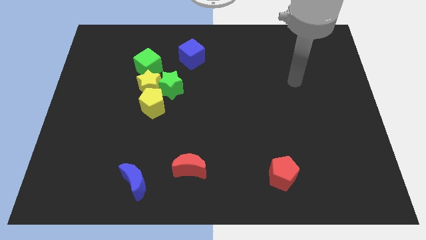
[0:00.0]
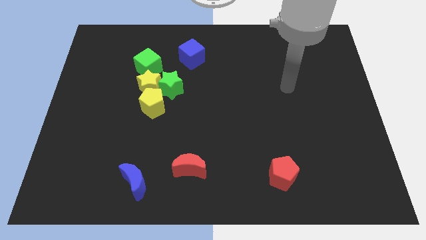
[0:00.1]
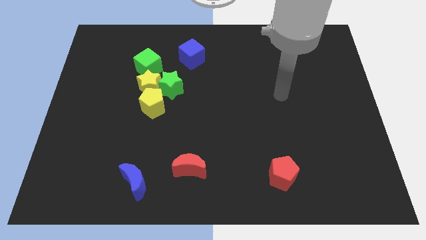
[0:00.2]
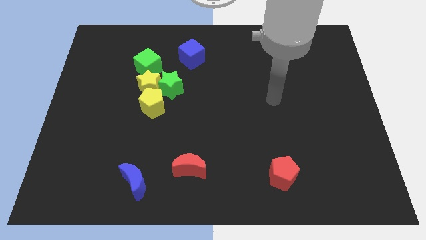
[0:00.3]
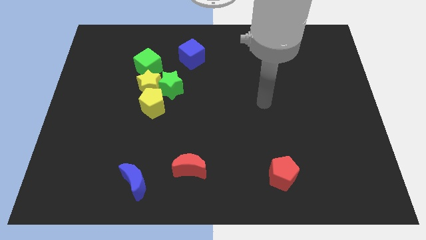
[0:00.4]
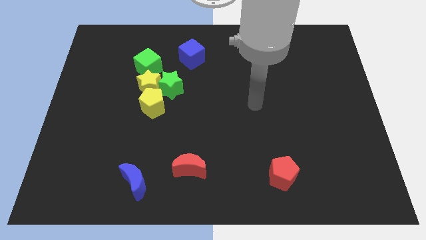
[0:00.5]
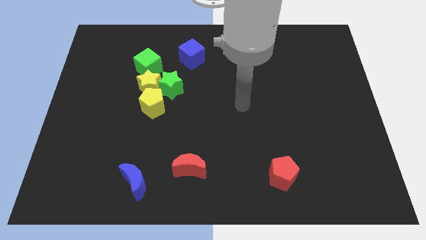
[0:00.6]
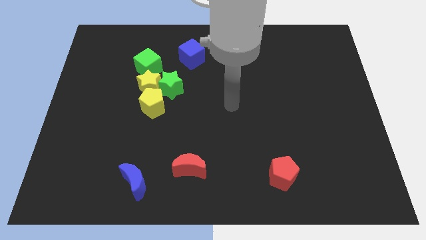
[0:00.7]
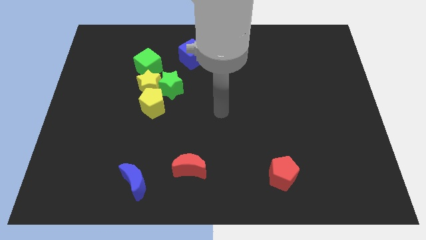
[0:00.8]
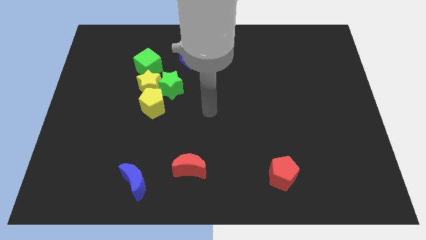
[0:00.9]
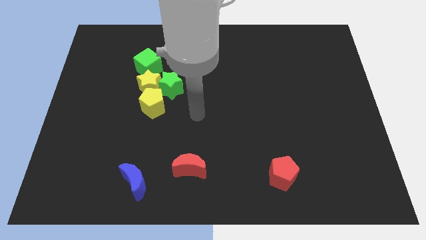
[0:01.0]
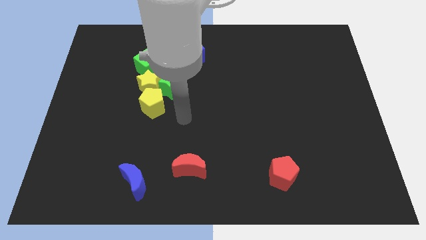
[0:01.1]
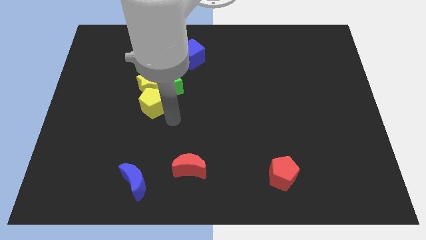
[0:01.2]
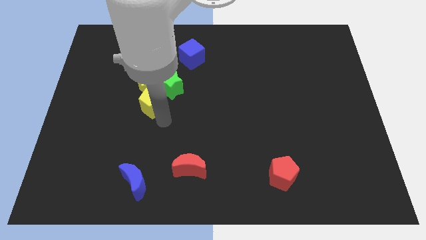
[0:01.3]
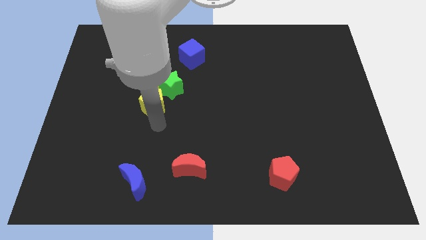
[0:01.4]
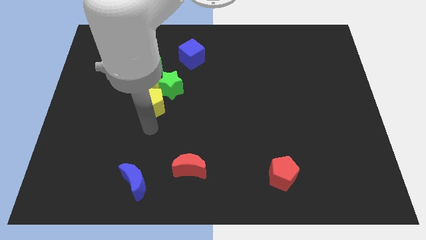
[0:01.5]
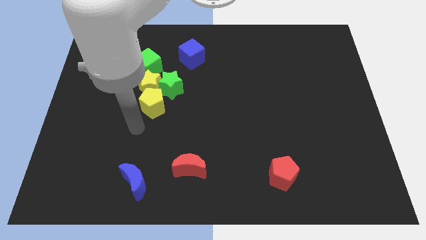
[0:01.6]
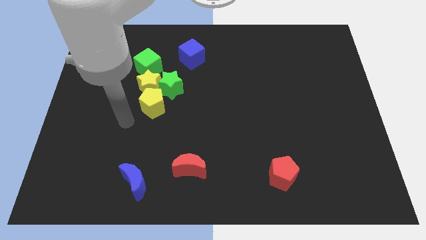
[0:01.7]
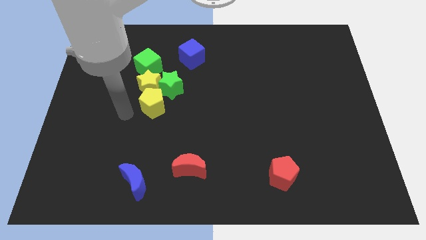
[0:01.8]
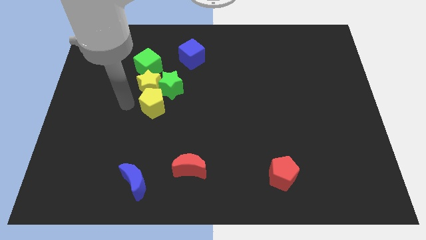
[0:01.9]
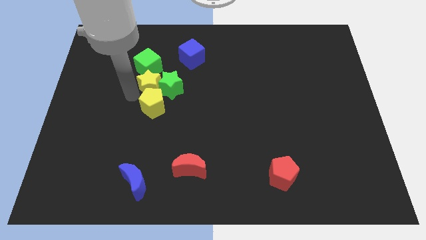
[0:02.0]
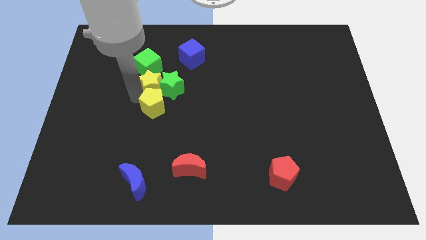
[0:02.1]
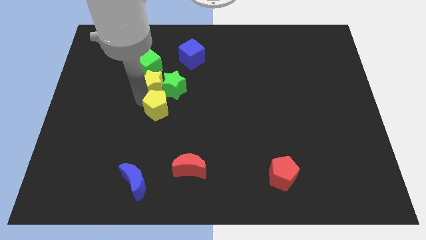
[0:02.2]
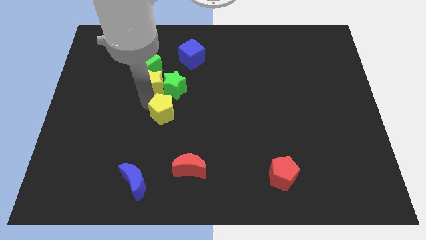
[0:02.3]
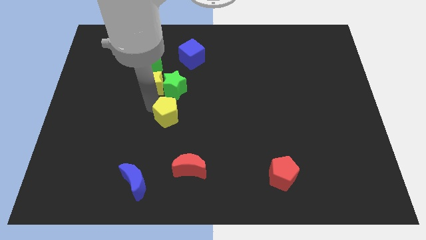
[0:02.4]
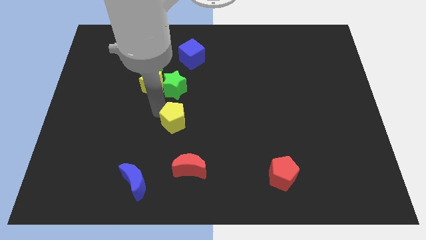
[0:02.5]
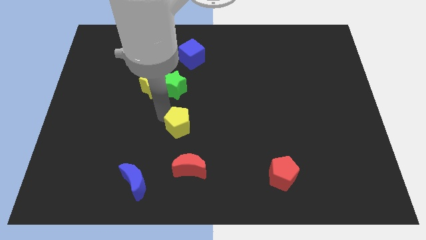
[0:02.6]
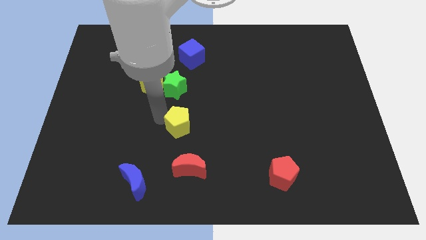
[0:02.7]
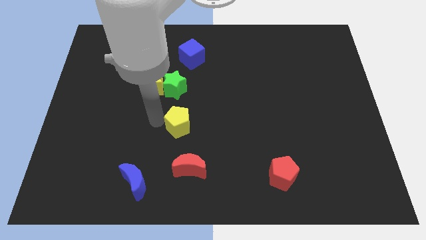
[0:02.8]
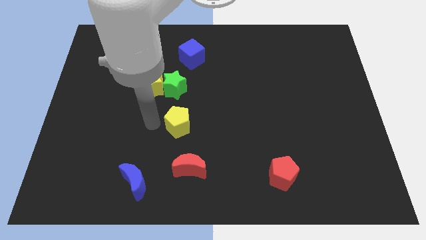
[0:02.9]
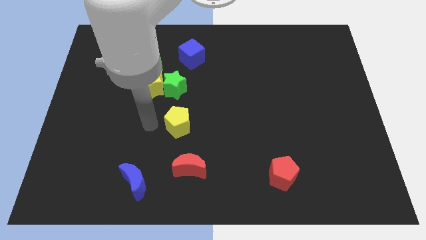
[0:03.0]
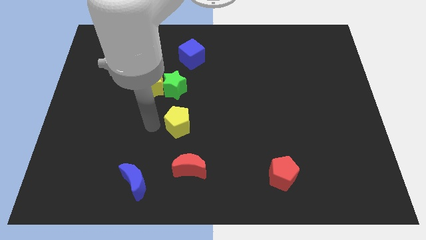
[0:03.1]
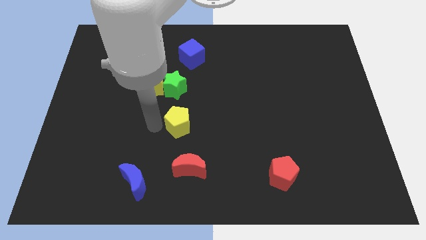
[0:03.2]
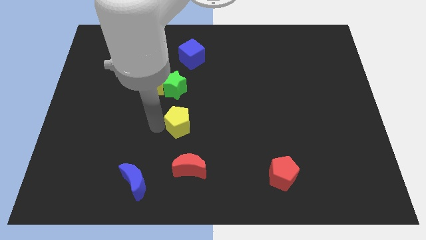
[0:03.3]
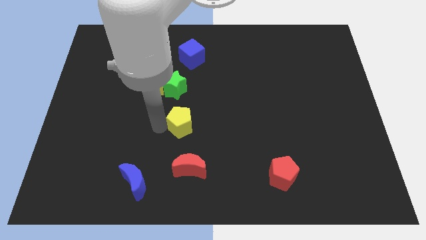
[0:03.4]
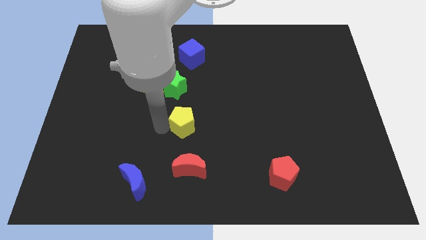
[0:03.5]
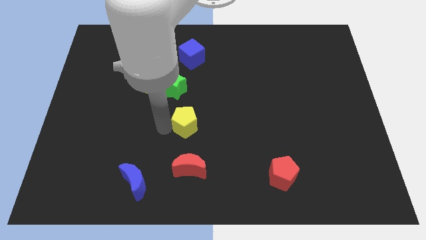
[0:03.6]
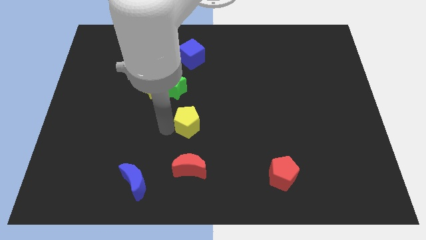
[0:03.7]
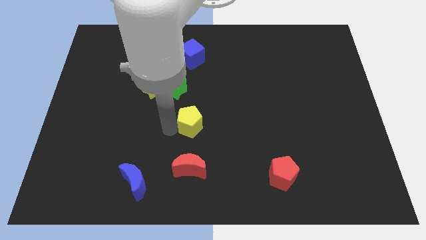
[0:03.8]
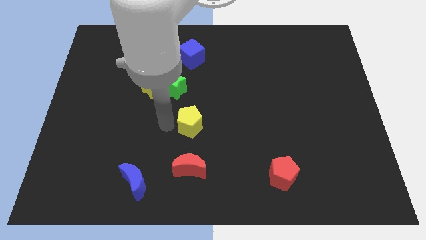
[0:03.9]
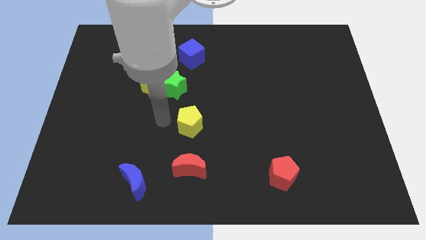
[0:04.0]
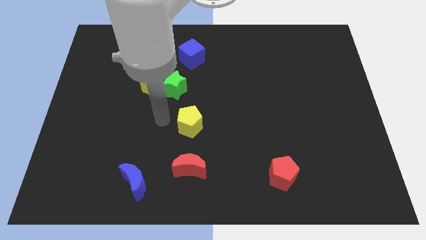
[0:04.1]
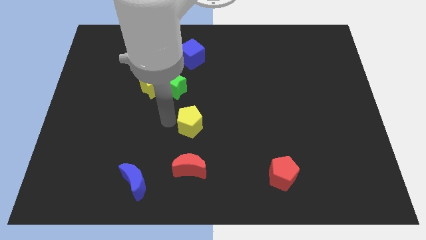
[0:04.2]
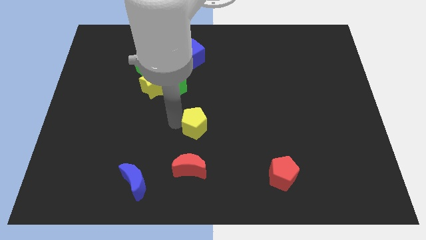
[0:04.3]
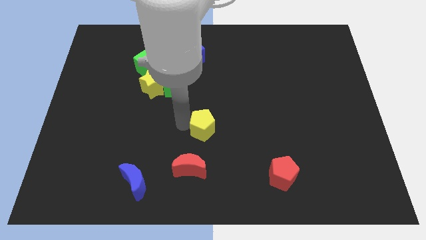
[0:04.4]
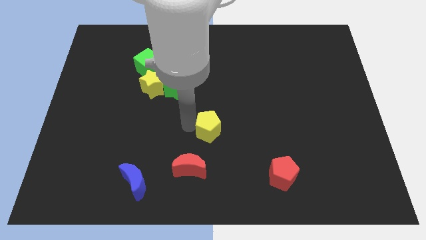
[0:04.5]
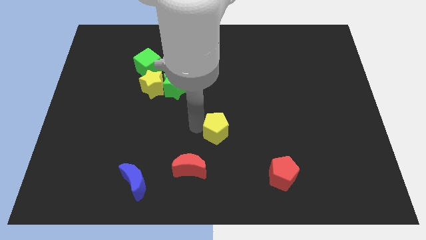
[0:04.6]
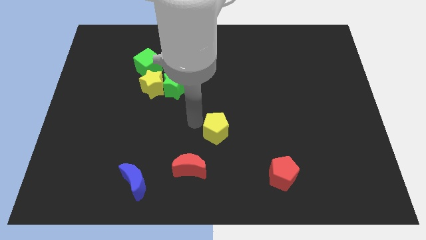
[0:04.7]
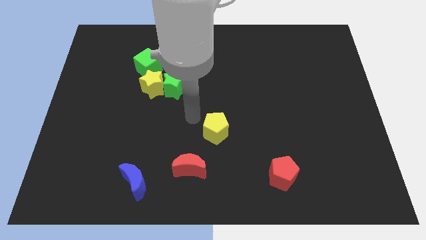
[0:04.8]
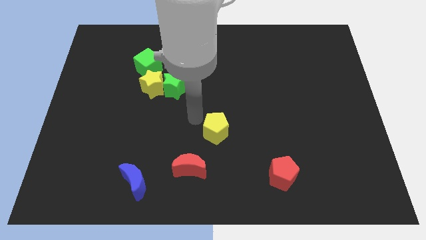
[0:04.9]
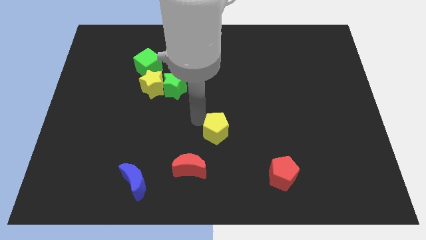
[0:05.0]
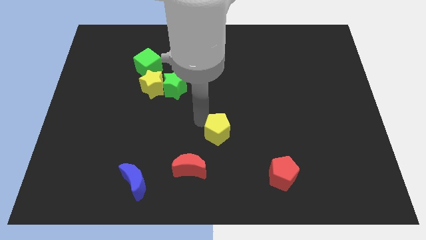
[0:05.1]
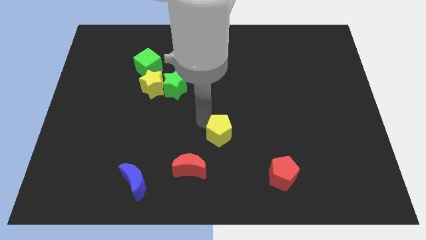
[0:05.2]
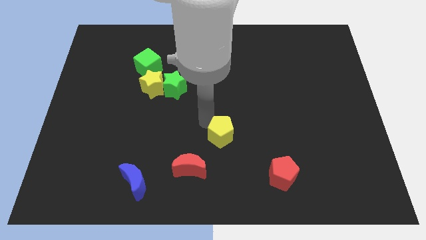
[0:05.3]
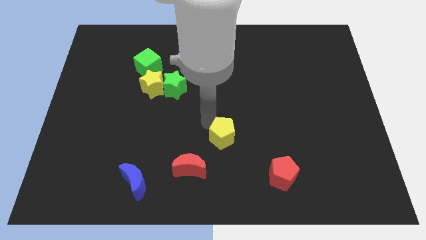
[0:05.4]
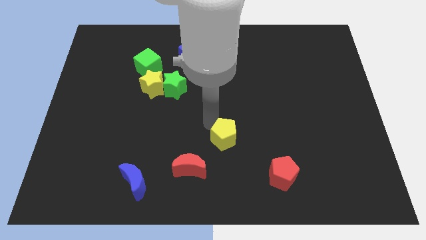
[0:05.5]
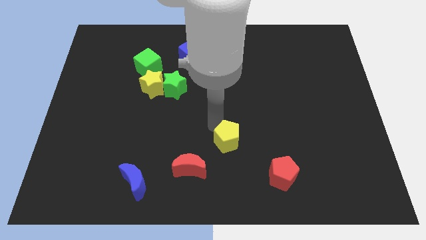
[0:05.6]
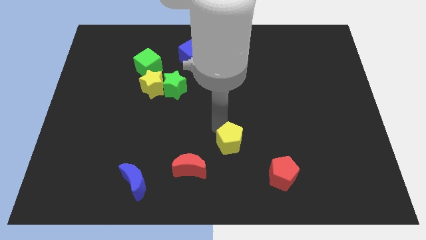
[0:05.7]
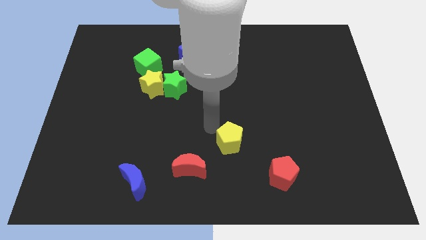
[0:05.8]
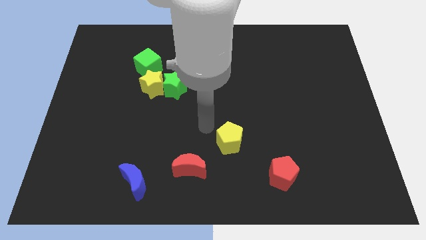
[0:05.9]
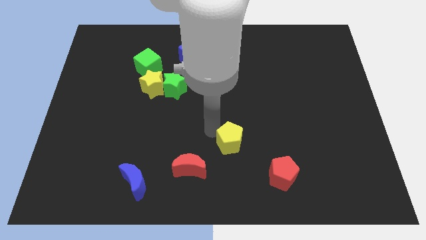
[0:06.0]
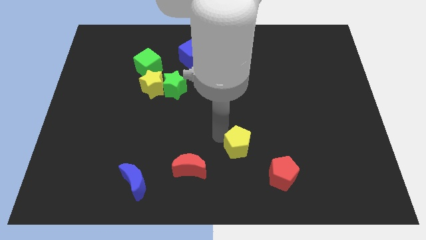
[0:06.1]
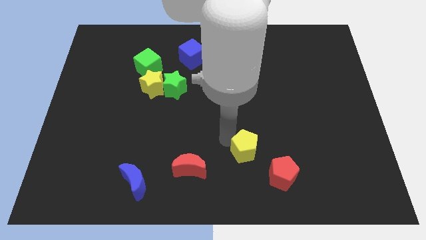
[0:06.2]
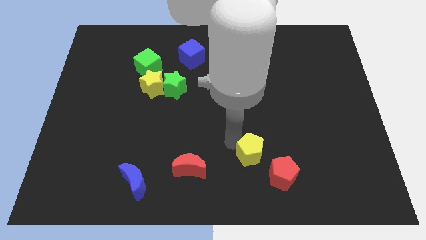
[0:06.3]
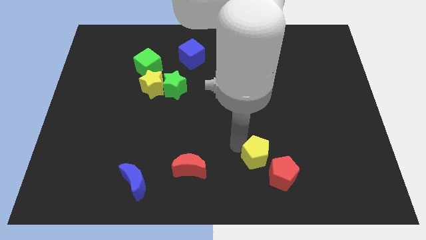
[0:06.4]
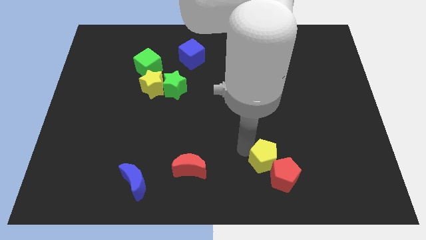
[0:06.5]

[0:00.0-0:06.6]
move the yellow pentagon to the red pentagon

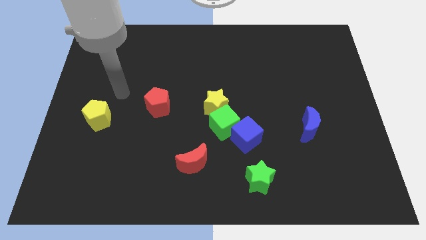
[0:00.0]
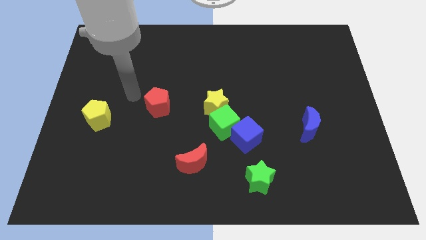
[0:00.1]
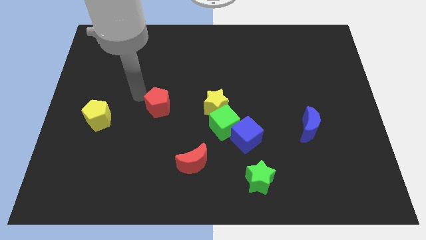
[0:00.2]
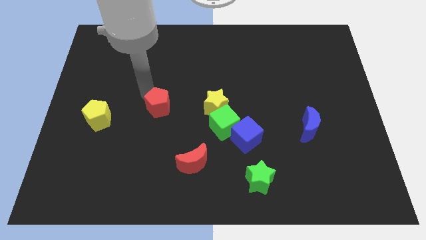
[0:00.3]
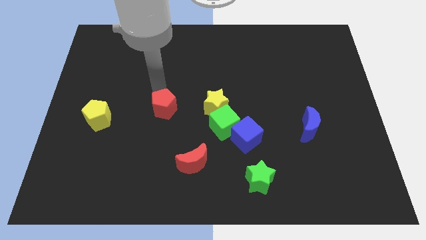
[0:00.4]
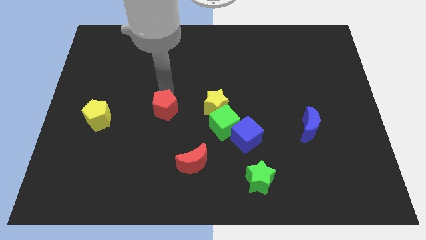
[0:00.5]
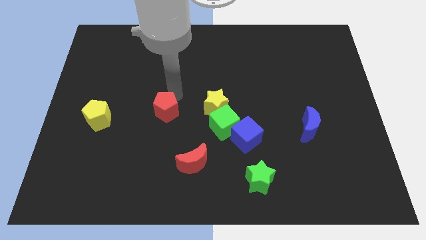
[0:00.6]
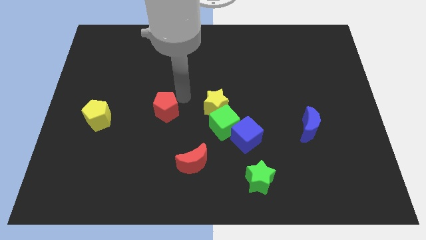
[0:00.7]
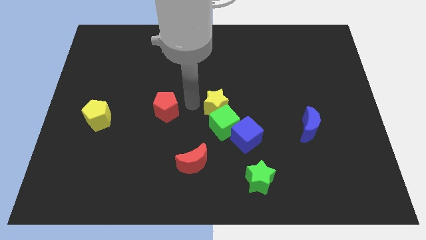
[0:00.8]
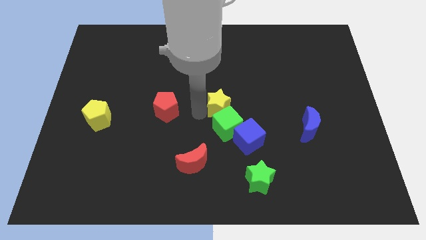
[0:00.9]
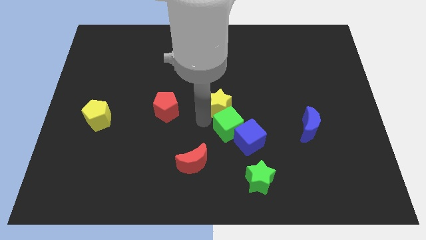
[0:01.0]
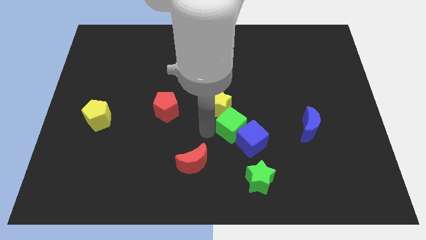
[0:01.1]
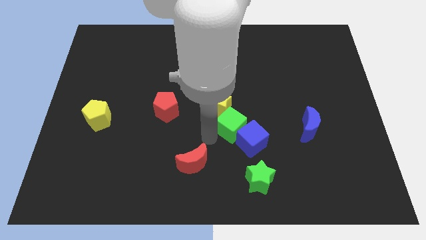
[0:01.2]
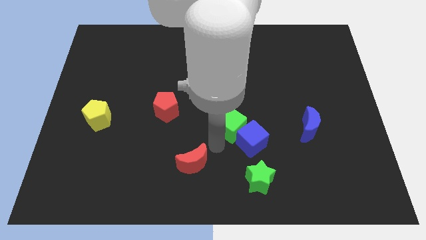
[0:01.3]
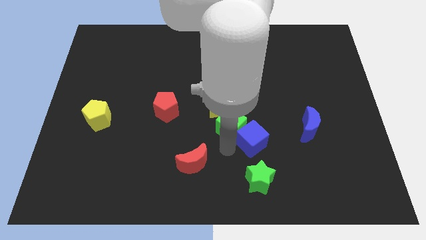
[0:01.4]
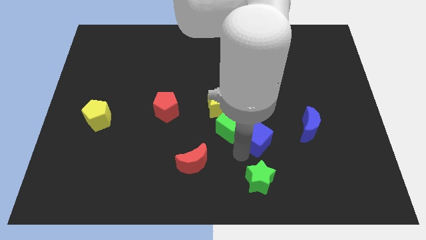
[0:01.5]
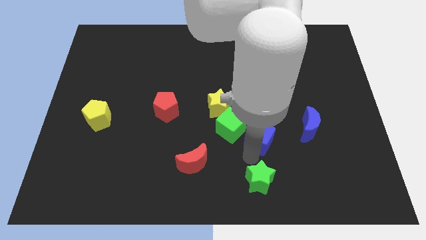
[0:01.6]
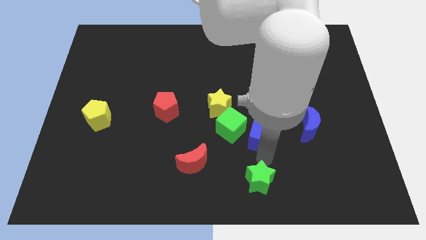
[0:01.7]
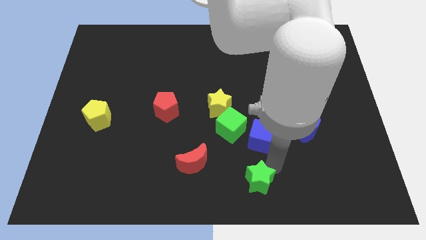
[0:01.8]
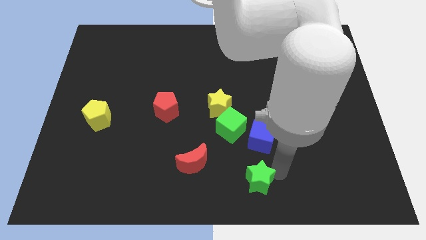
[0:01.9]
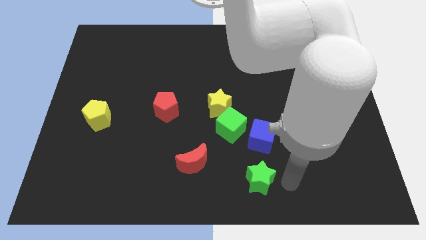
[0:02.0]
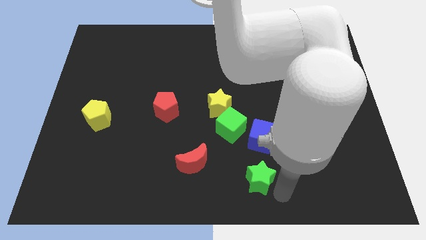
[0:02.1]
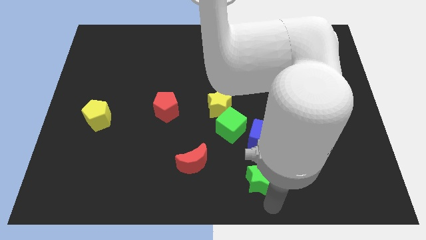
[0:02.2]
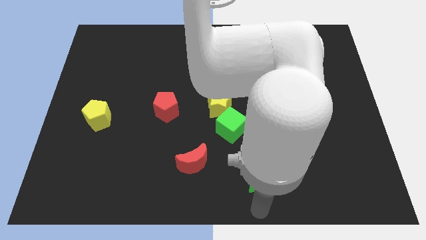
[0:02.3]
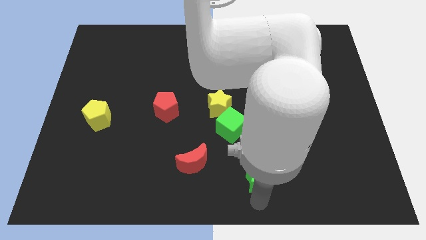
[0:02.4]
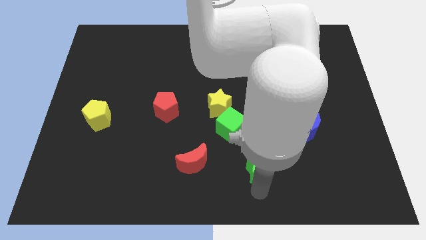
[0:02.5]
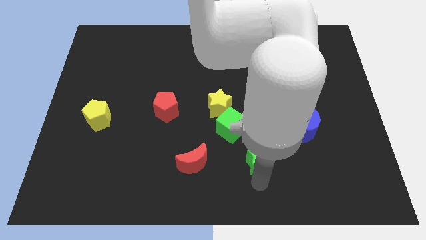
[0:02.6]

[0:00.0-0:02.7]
slide the green star next to the blue cube
